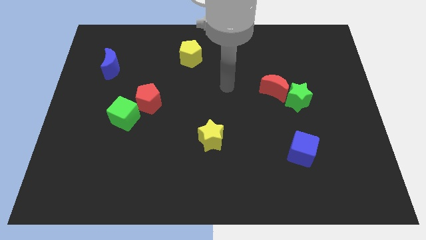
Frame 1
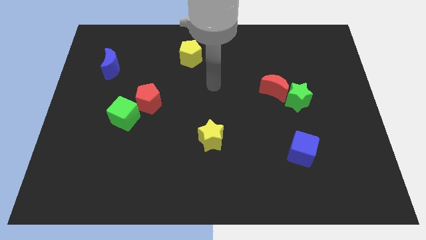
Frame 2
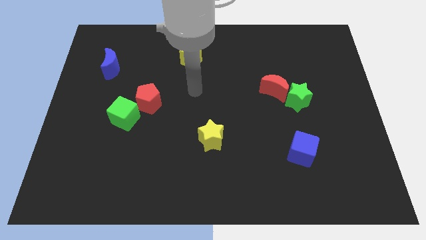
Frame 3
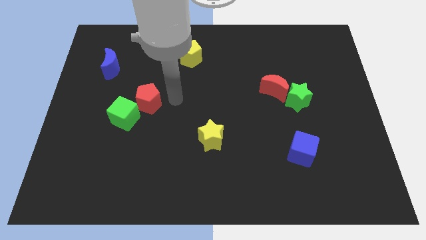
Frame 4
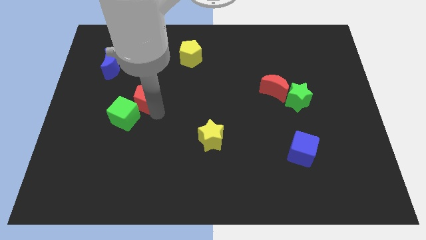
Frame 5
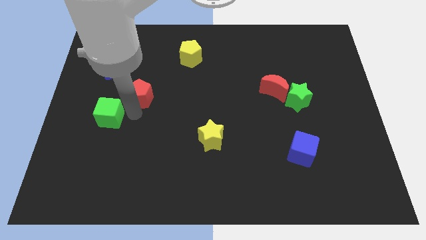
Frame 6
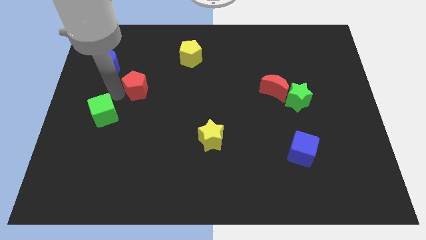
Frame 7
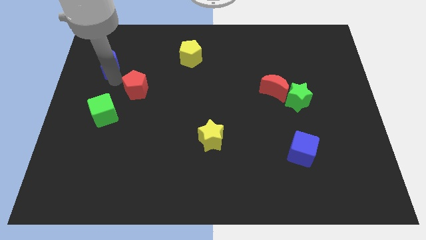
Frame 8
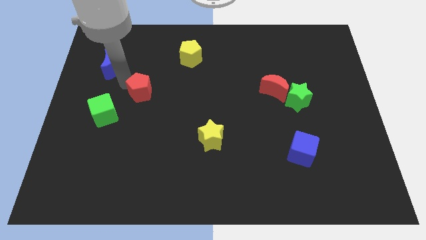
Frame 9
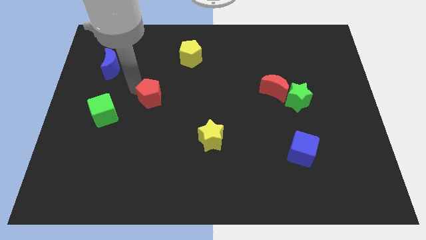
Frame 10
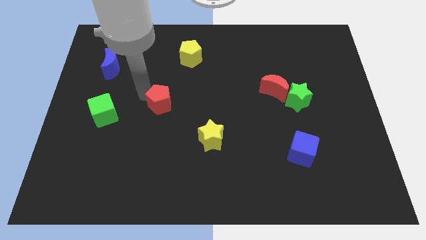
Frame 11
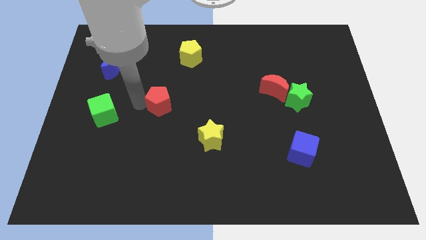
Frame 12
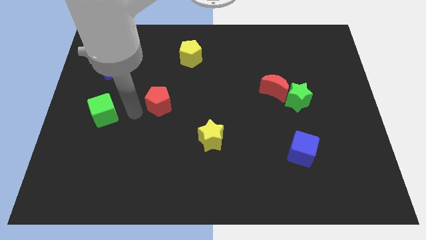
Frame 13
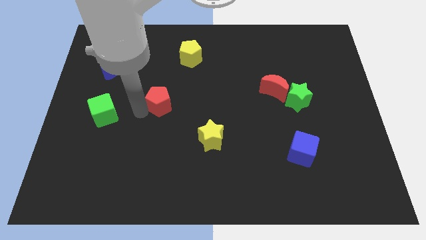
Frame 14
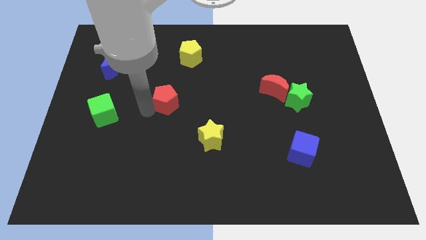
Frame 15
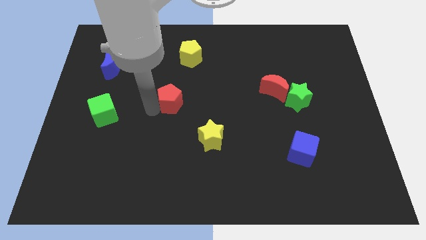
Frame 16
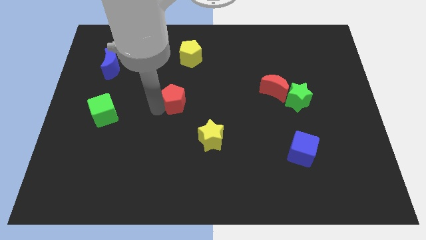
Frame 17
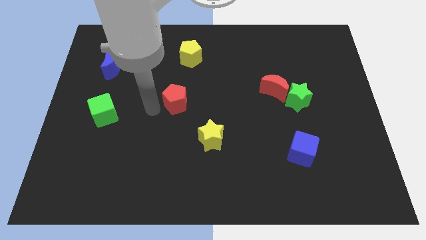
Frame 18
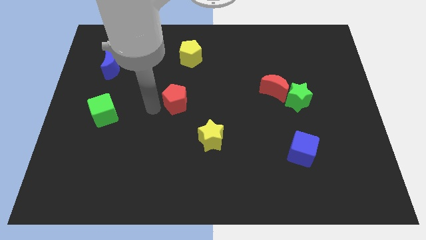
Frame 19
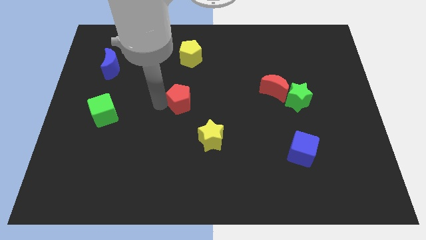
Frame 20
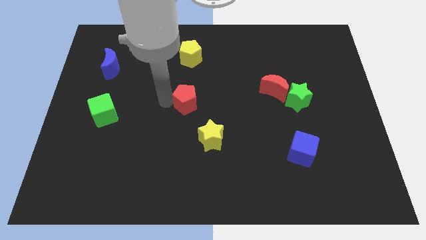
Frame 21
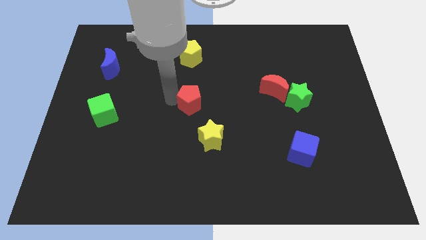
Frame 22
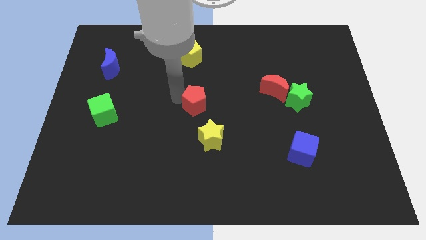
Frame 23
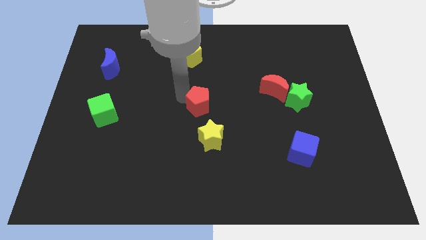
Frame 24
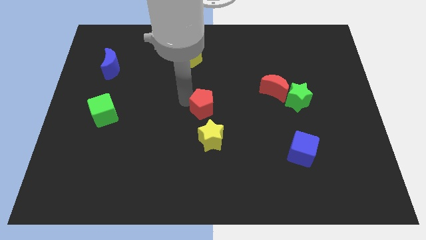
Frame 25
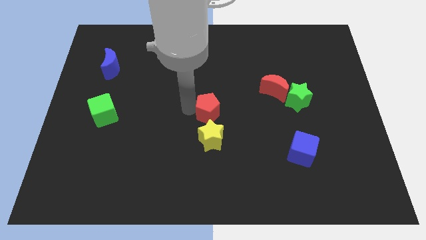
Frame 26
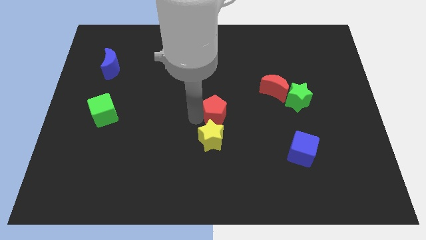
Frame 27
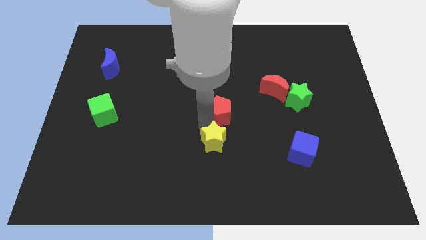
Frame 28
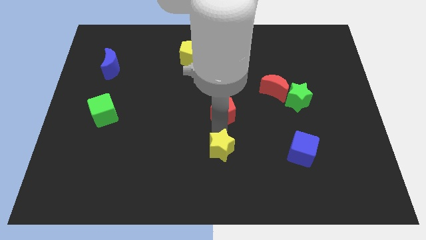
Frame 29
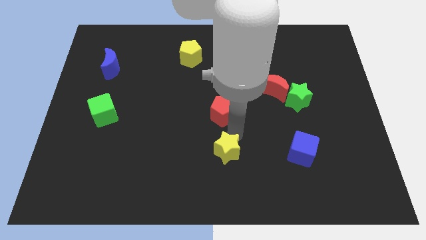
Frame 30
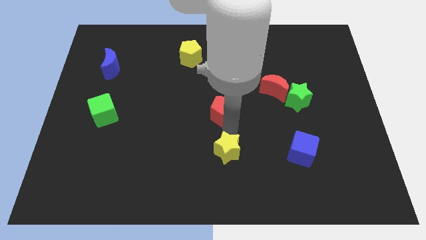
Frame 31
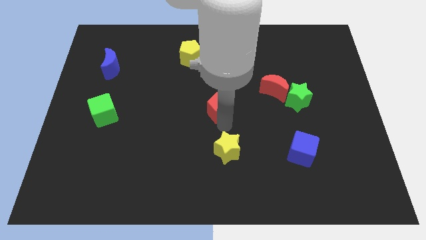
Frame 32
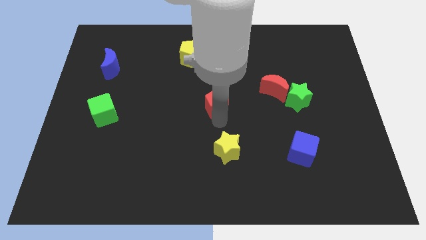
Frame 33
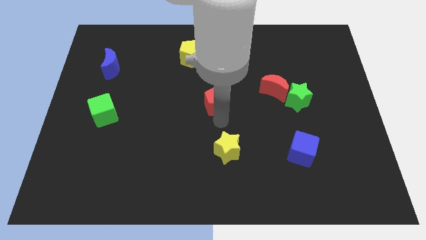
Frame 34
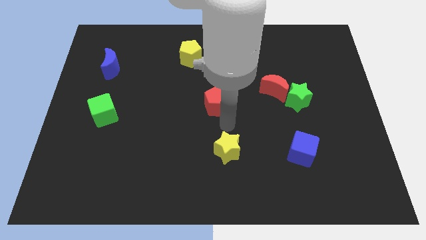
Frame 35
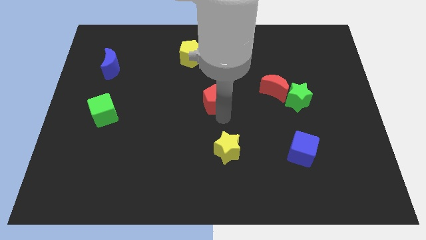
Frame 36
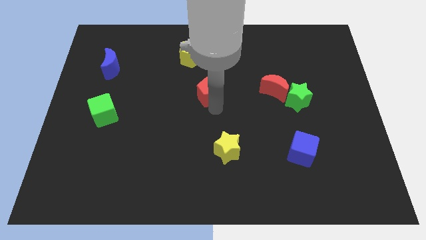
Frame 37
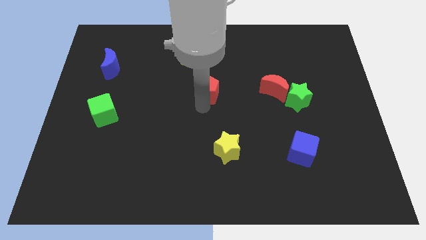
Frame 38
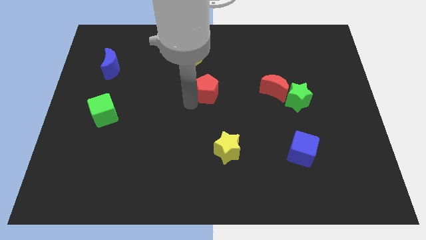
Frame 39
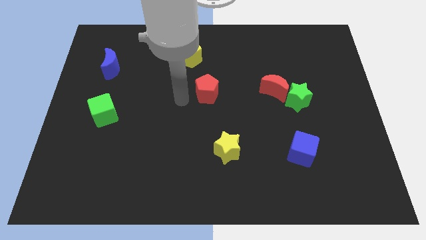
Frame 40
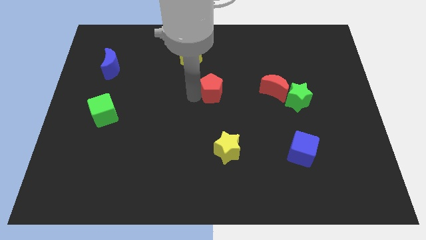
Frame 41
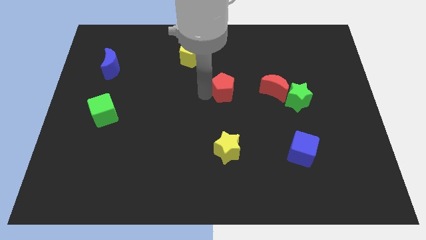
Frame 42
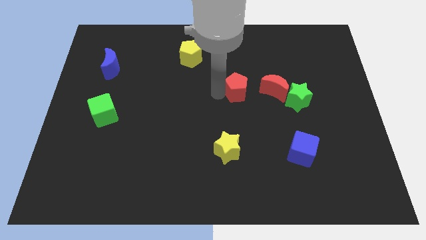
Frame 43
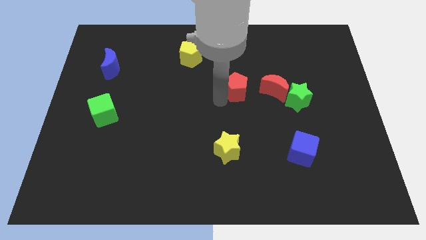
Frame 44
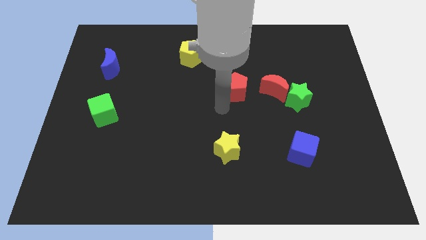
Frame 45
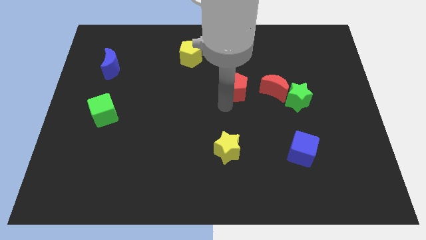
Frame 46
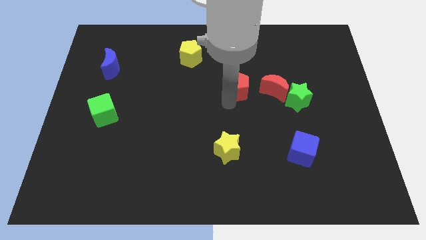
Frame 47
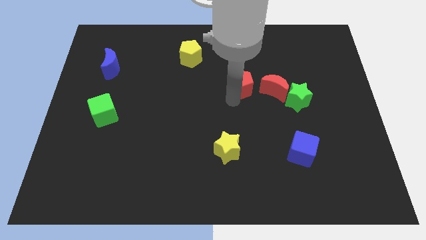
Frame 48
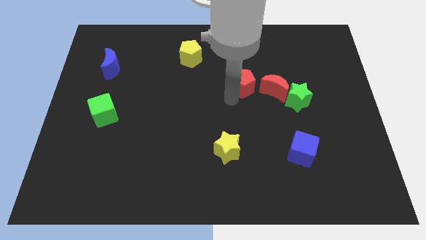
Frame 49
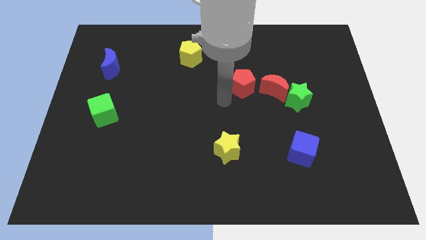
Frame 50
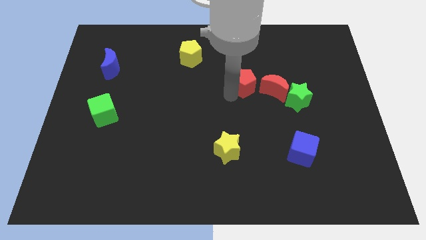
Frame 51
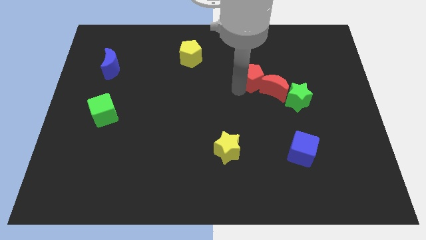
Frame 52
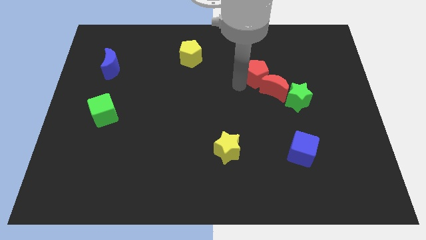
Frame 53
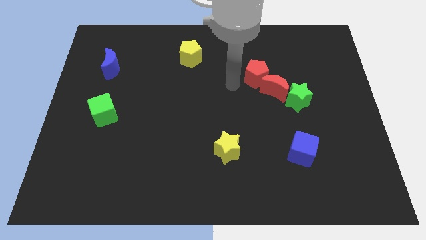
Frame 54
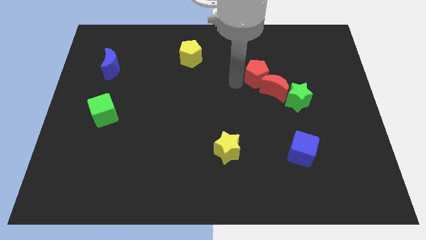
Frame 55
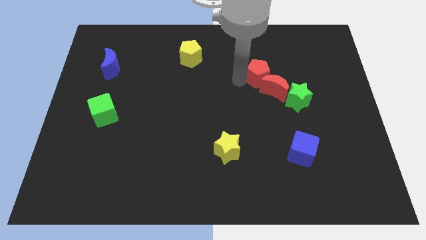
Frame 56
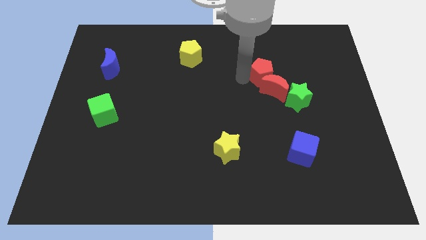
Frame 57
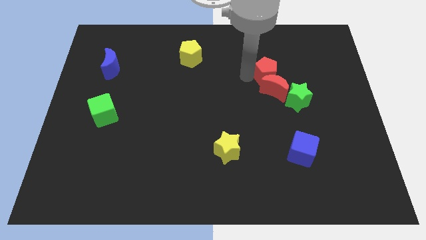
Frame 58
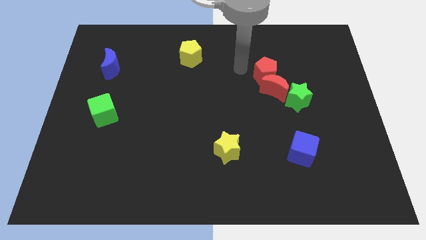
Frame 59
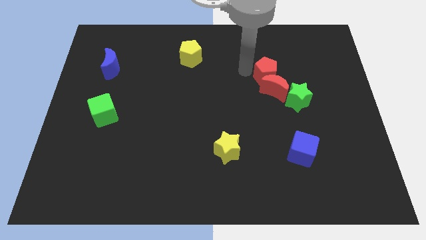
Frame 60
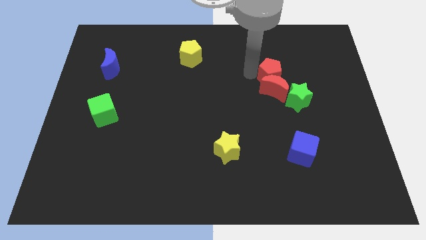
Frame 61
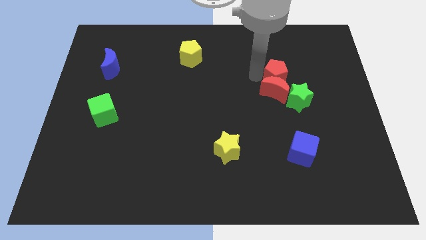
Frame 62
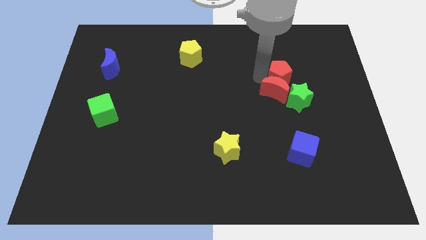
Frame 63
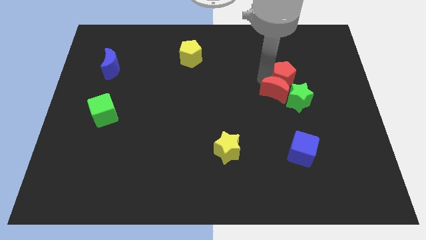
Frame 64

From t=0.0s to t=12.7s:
put the red pentagon right of the red moon
